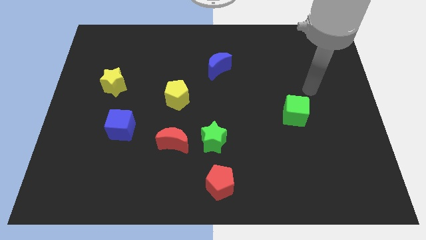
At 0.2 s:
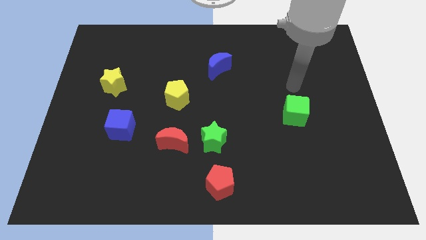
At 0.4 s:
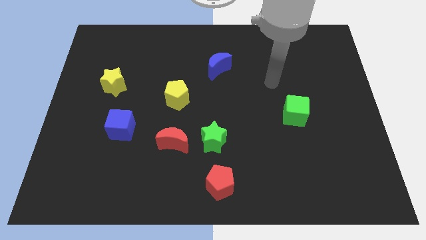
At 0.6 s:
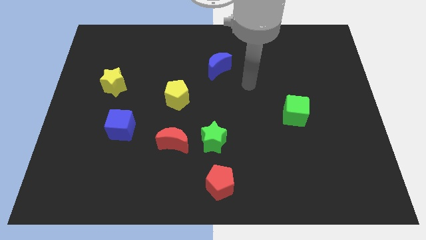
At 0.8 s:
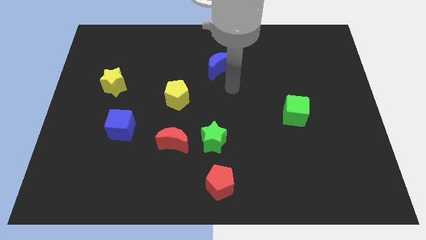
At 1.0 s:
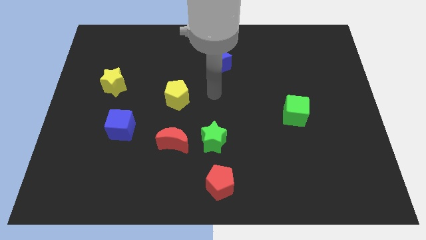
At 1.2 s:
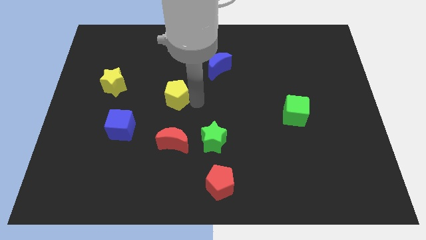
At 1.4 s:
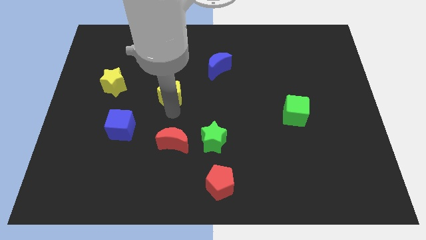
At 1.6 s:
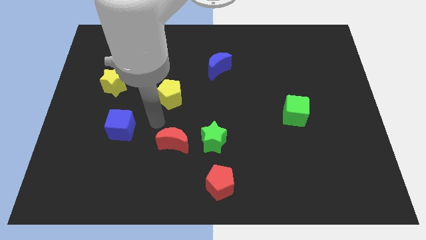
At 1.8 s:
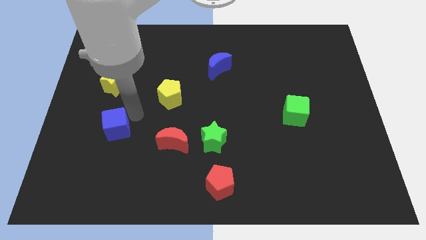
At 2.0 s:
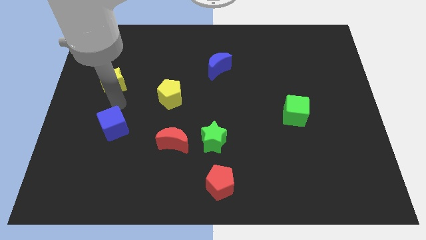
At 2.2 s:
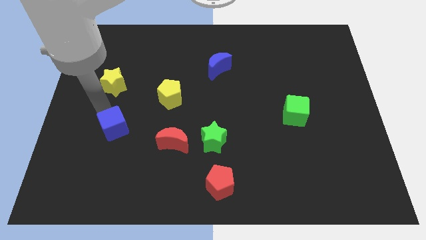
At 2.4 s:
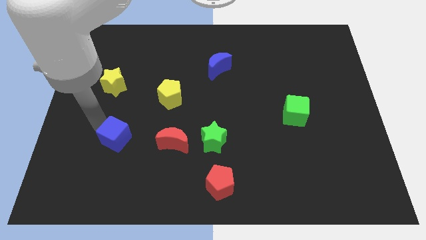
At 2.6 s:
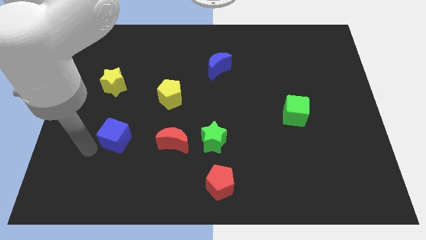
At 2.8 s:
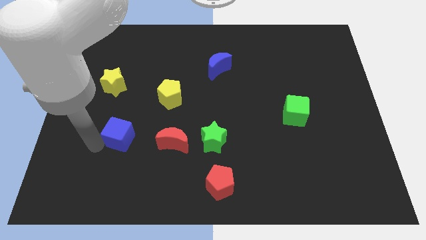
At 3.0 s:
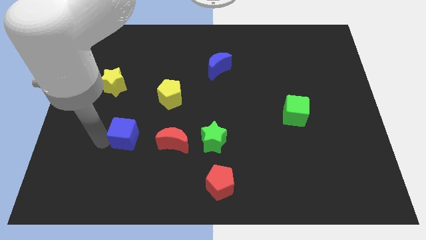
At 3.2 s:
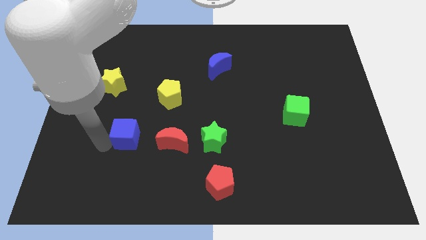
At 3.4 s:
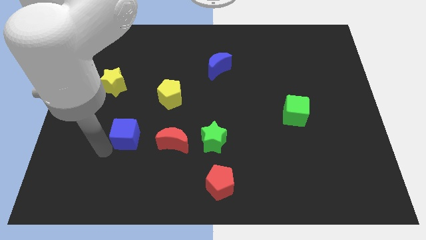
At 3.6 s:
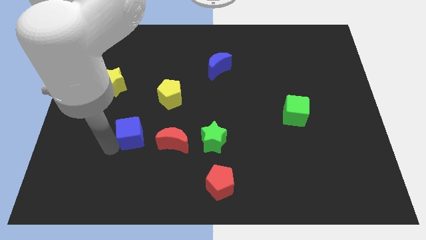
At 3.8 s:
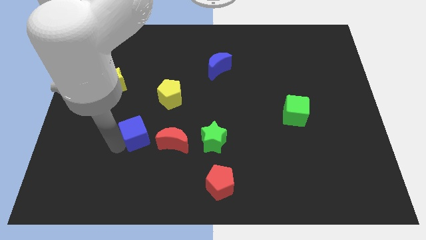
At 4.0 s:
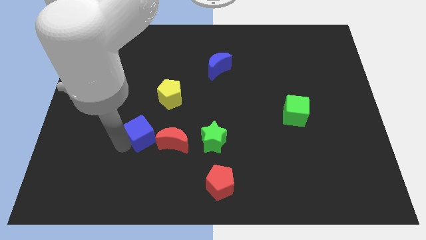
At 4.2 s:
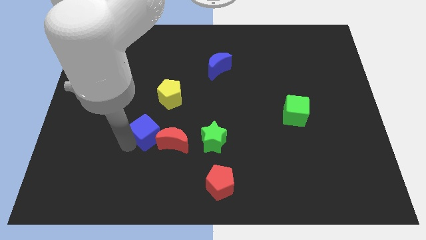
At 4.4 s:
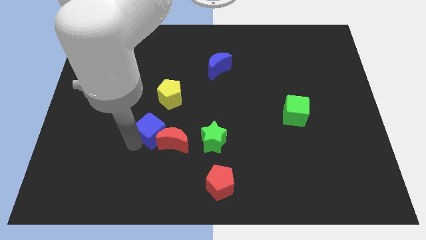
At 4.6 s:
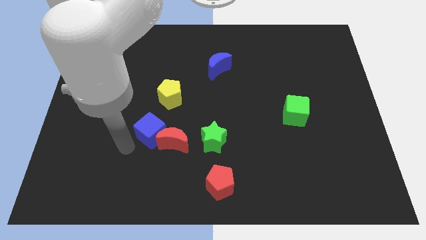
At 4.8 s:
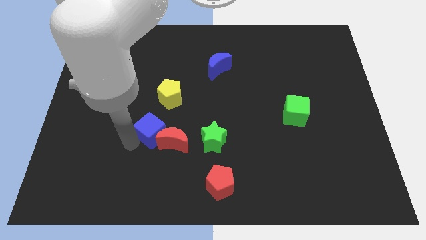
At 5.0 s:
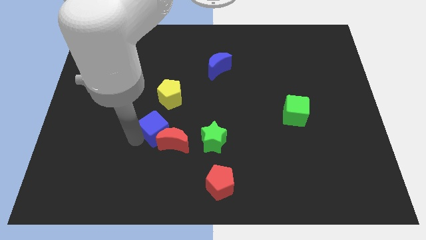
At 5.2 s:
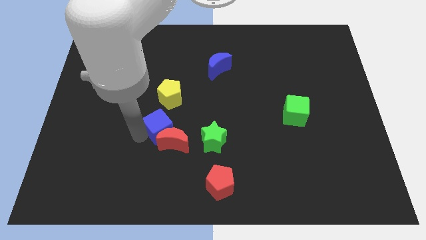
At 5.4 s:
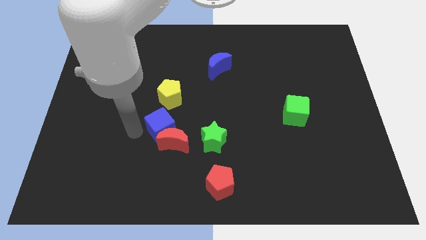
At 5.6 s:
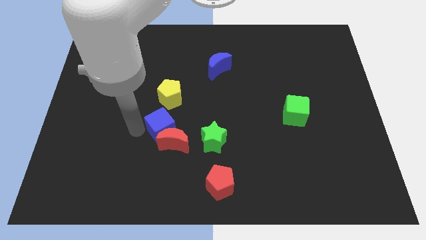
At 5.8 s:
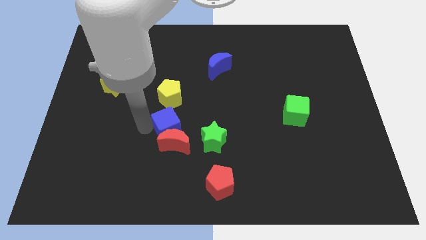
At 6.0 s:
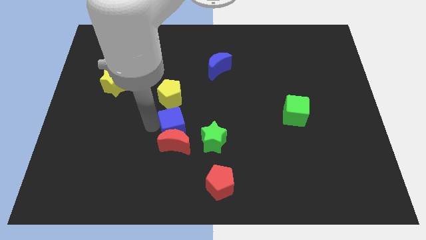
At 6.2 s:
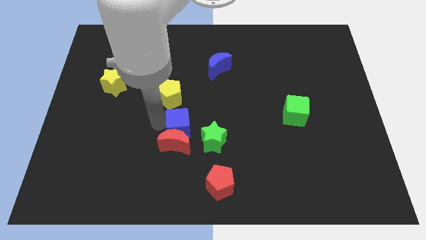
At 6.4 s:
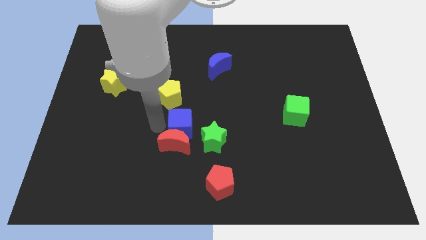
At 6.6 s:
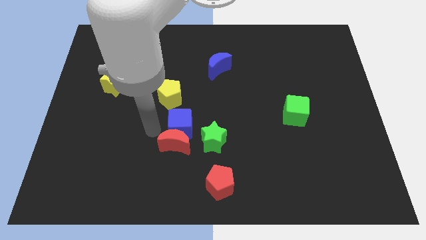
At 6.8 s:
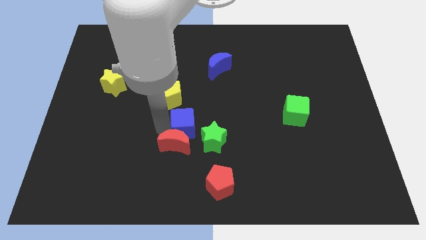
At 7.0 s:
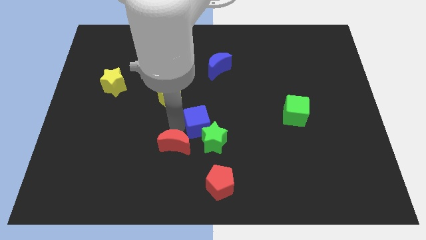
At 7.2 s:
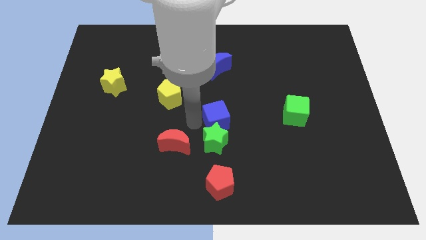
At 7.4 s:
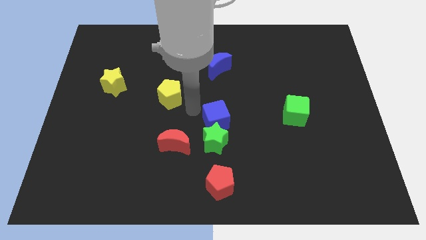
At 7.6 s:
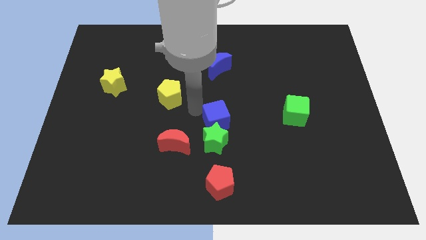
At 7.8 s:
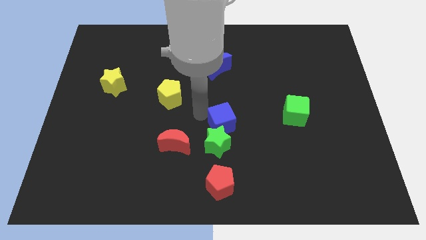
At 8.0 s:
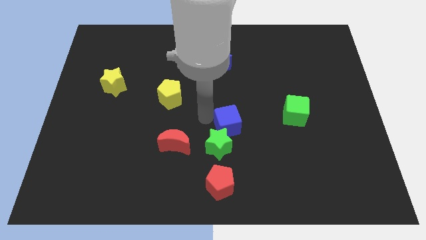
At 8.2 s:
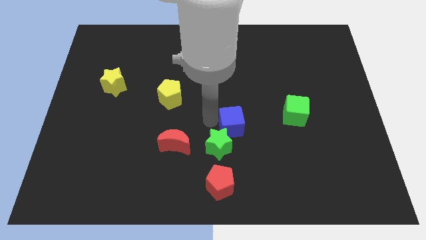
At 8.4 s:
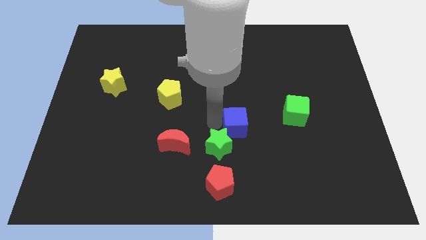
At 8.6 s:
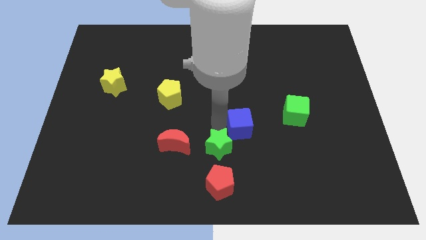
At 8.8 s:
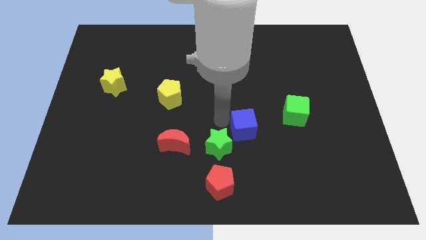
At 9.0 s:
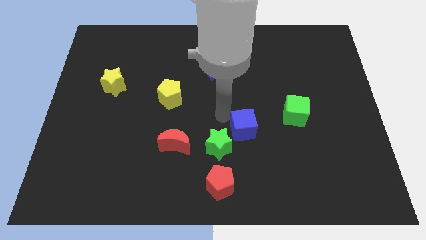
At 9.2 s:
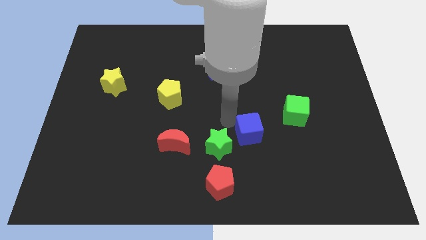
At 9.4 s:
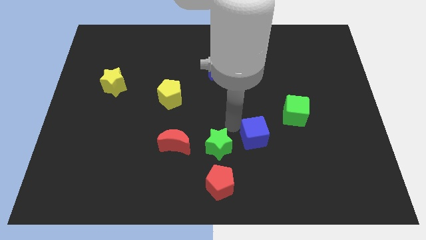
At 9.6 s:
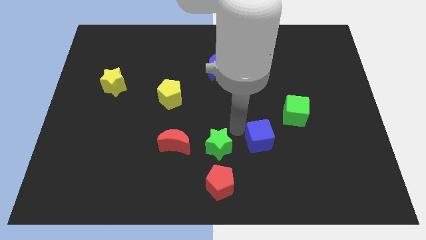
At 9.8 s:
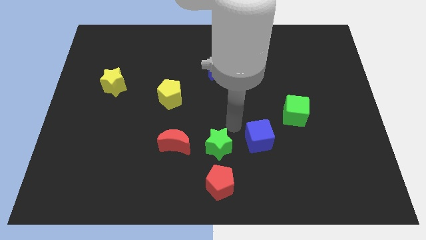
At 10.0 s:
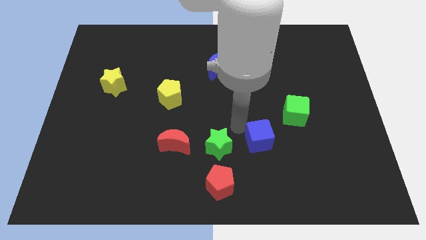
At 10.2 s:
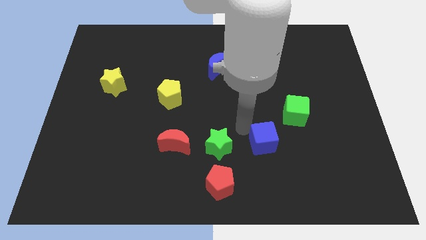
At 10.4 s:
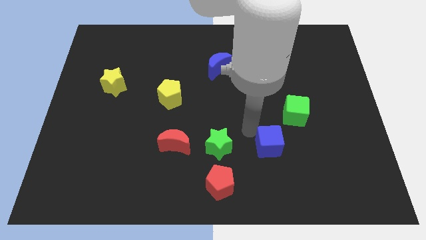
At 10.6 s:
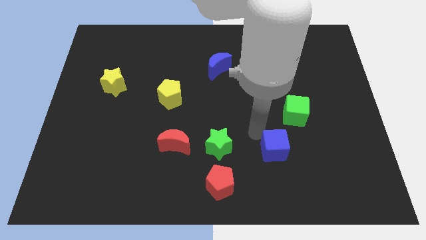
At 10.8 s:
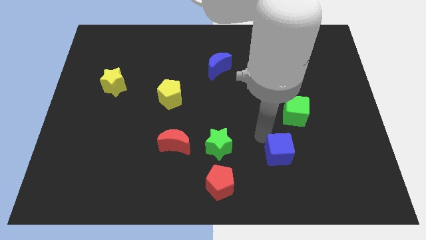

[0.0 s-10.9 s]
push the blue cube below the green cube

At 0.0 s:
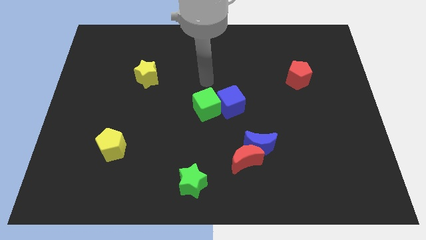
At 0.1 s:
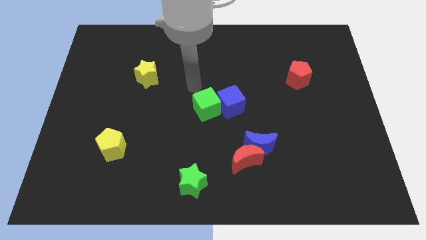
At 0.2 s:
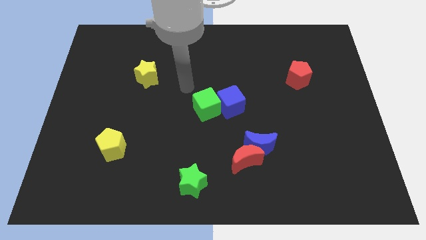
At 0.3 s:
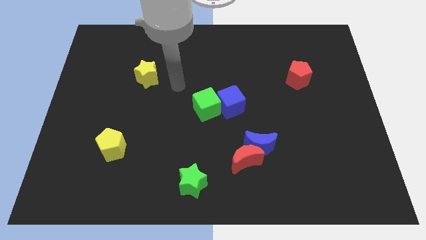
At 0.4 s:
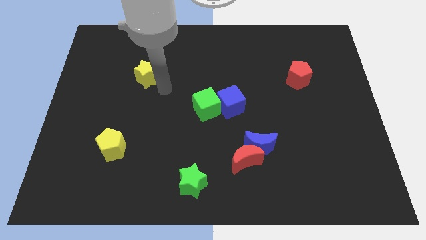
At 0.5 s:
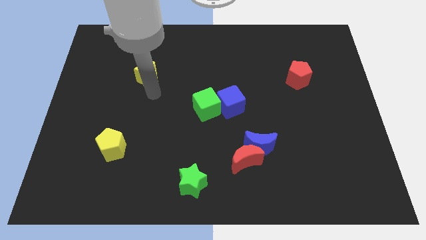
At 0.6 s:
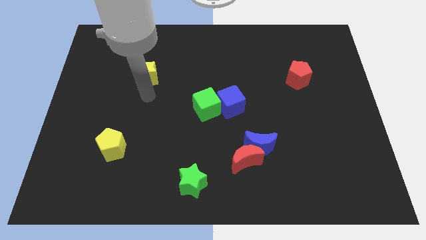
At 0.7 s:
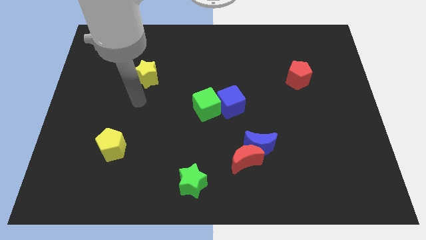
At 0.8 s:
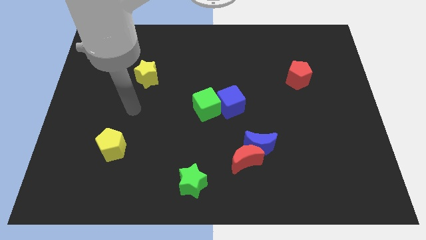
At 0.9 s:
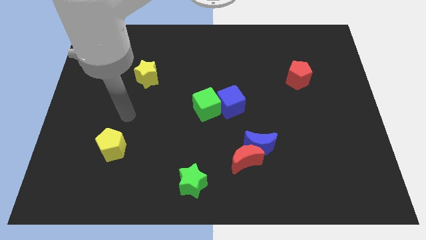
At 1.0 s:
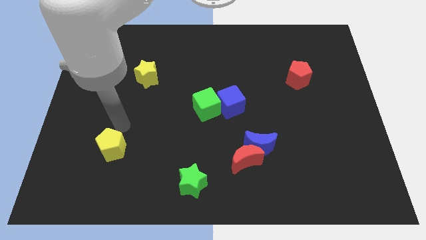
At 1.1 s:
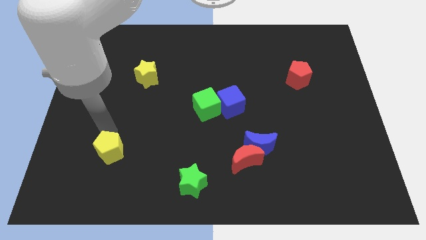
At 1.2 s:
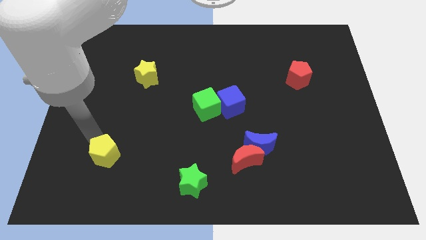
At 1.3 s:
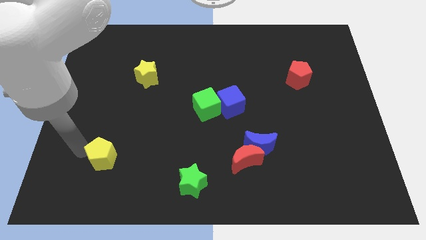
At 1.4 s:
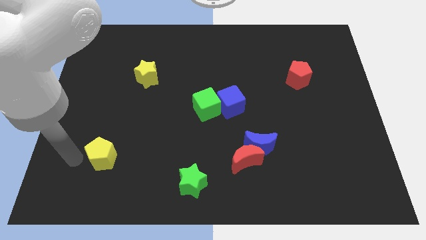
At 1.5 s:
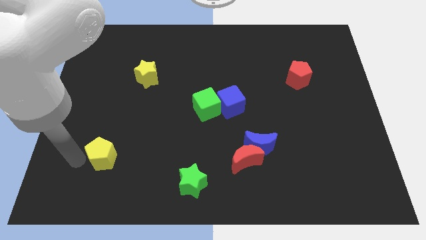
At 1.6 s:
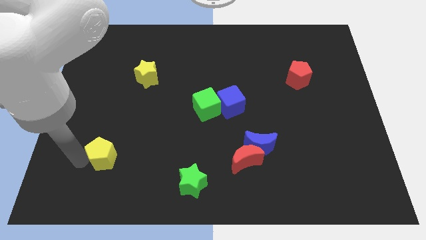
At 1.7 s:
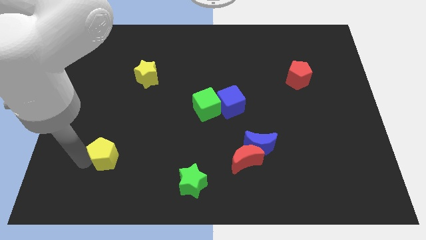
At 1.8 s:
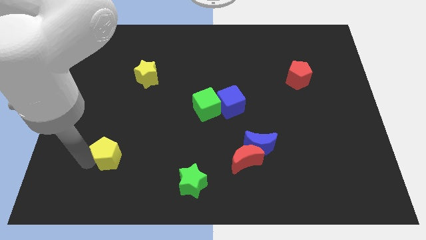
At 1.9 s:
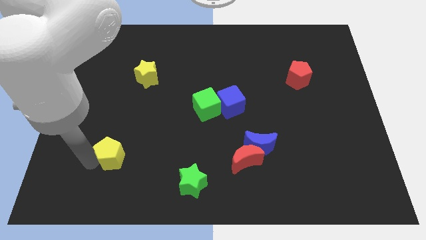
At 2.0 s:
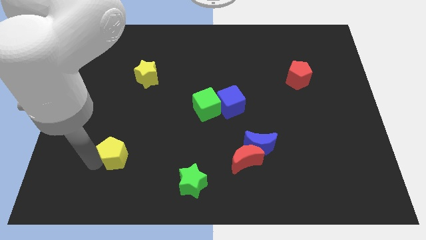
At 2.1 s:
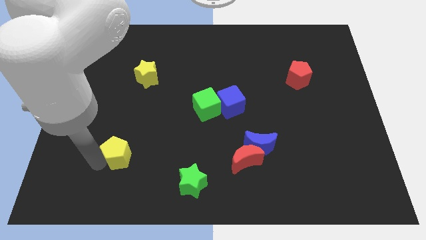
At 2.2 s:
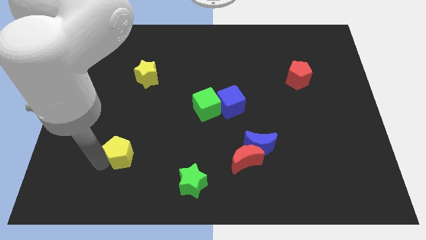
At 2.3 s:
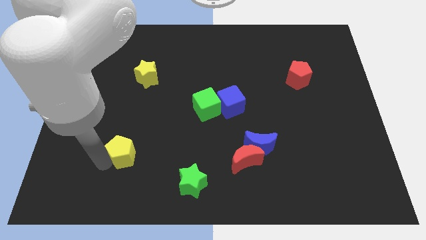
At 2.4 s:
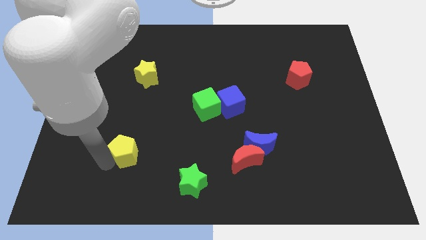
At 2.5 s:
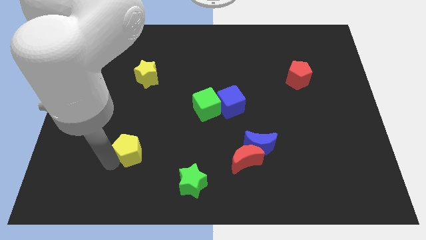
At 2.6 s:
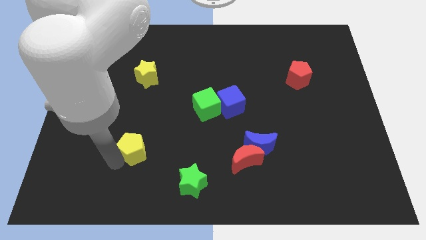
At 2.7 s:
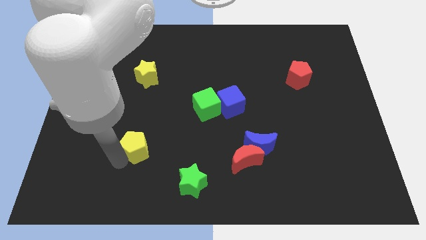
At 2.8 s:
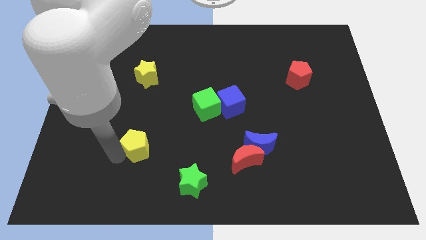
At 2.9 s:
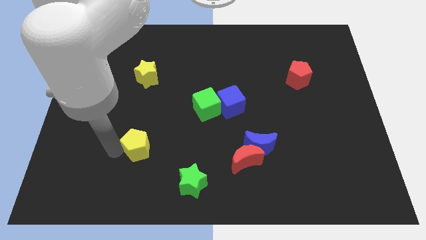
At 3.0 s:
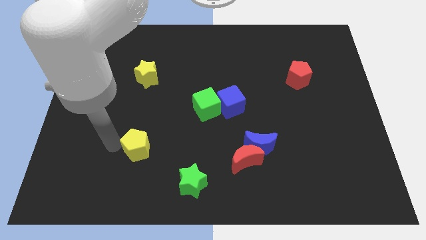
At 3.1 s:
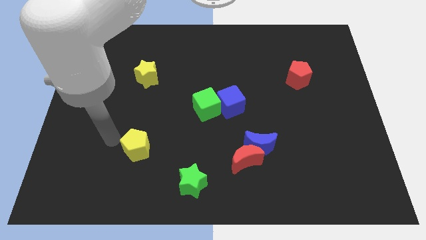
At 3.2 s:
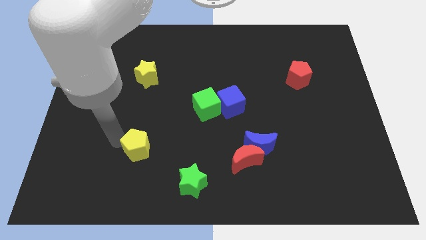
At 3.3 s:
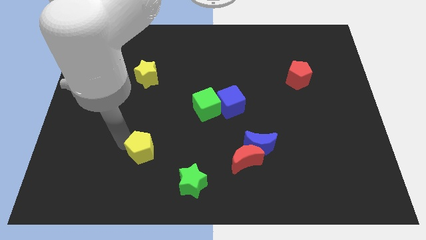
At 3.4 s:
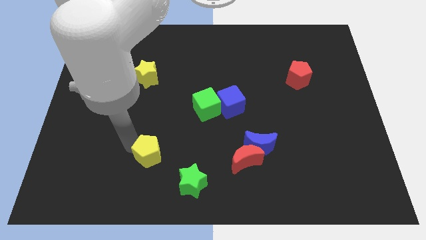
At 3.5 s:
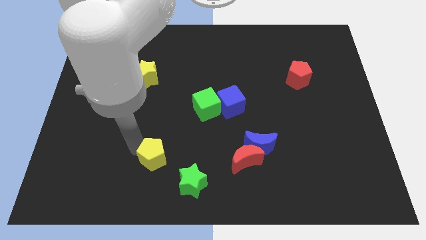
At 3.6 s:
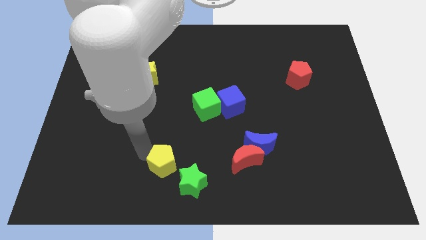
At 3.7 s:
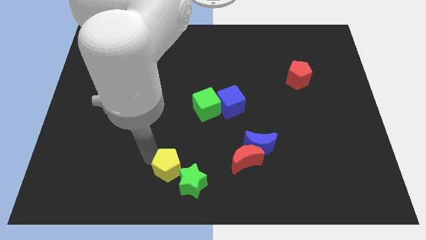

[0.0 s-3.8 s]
push the yellow pentagon just left of the red moon
